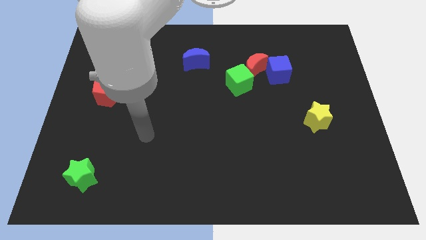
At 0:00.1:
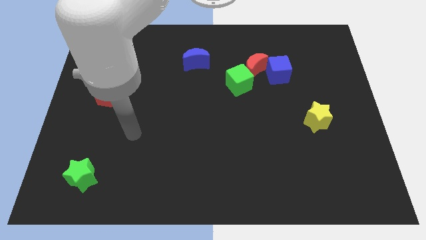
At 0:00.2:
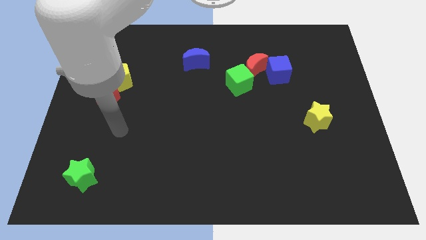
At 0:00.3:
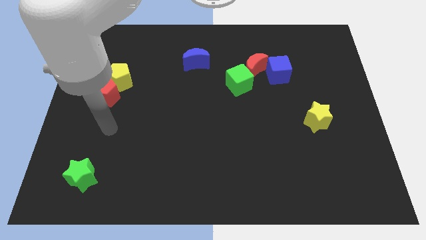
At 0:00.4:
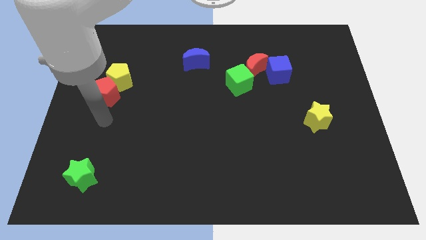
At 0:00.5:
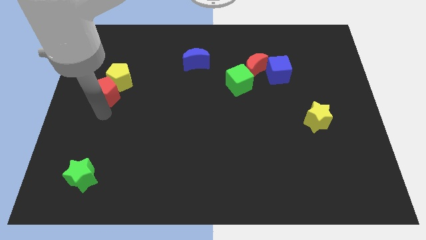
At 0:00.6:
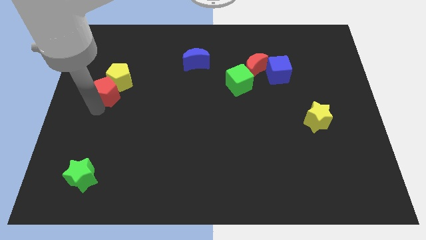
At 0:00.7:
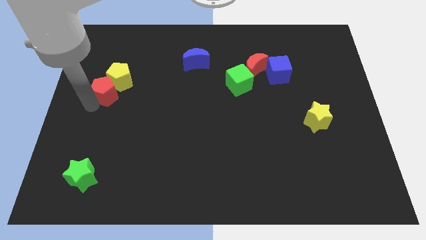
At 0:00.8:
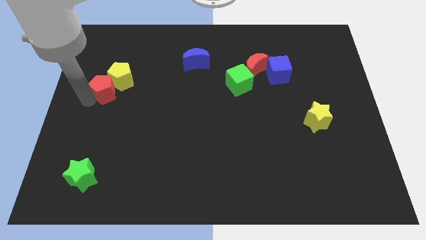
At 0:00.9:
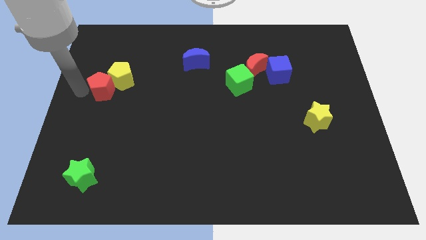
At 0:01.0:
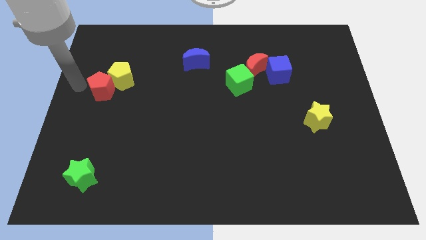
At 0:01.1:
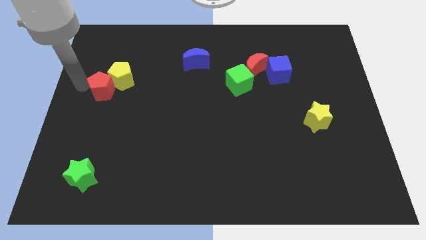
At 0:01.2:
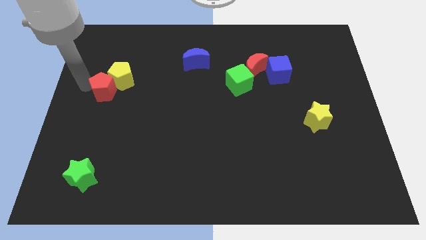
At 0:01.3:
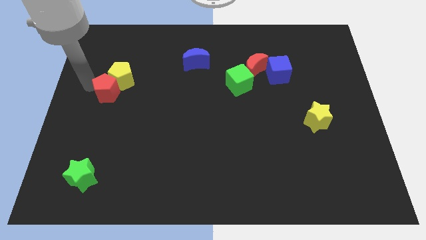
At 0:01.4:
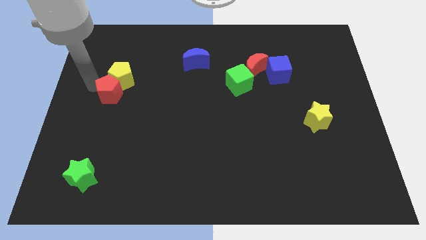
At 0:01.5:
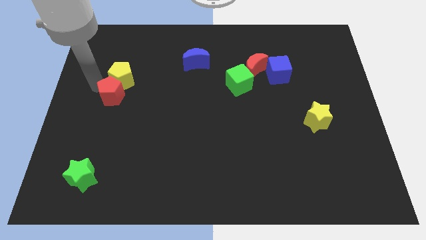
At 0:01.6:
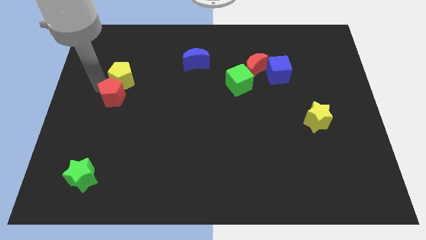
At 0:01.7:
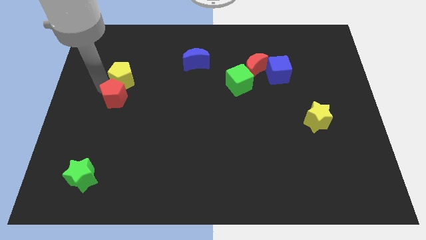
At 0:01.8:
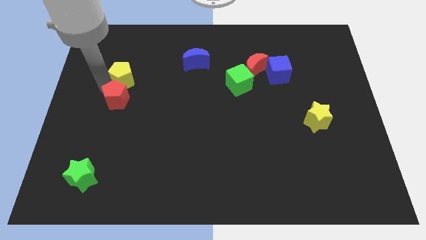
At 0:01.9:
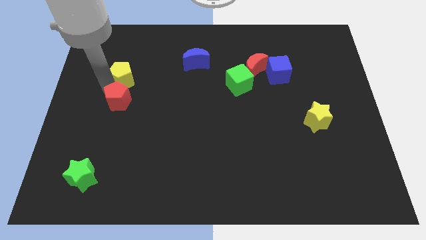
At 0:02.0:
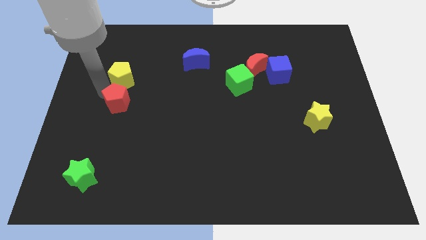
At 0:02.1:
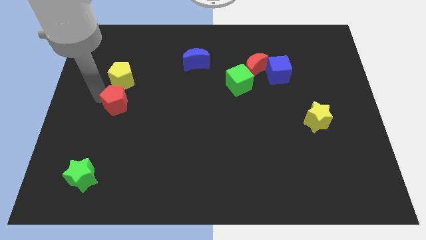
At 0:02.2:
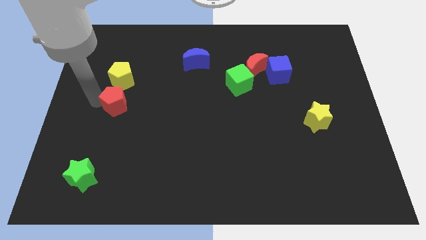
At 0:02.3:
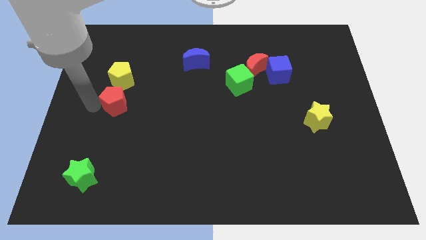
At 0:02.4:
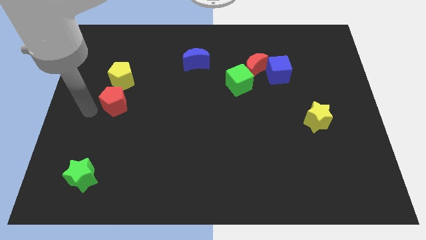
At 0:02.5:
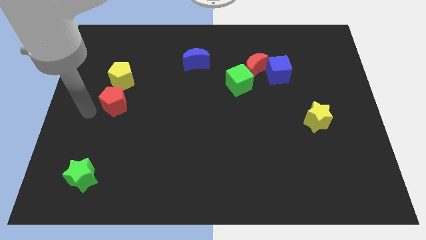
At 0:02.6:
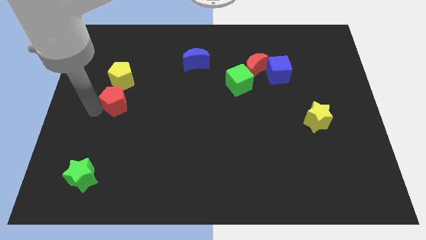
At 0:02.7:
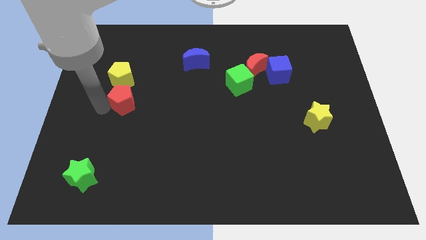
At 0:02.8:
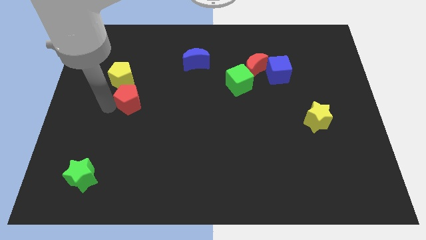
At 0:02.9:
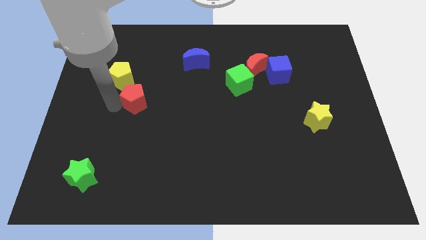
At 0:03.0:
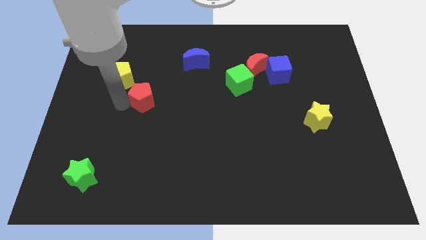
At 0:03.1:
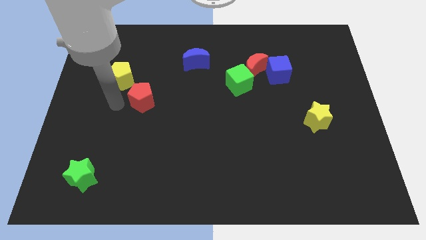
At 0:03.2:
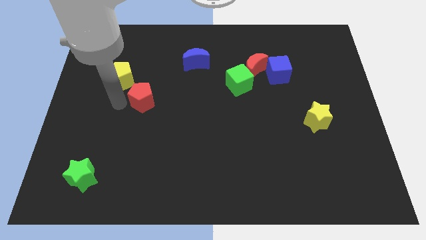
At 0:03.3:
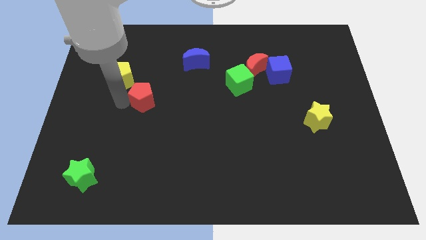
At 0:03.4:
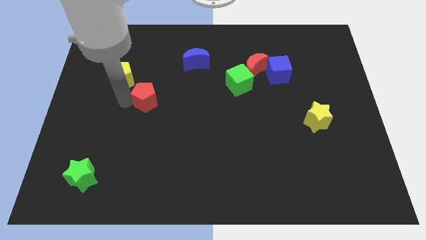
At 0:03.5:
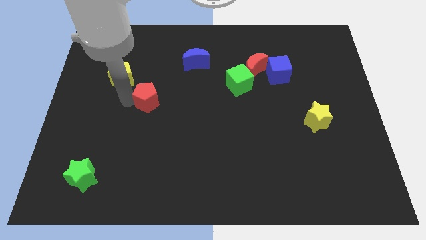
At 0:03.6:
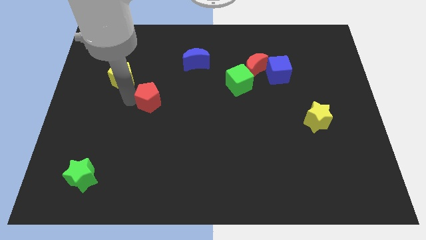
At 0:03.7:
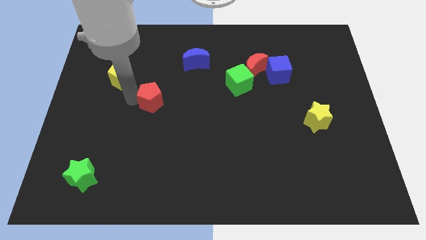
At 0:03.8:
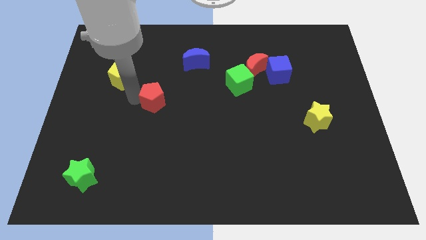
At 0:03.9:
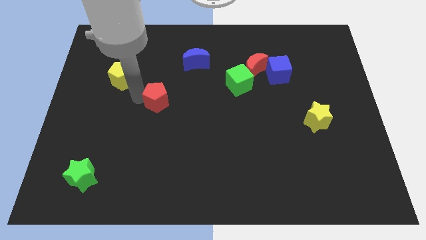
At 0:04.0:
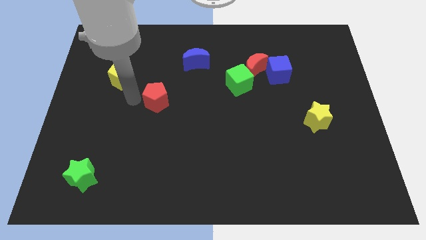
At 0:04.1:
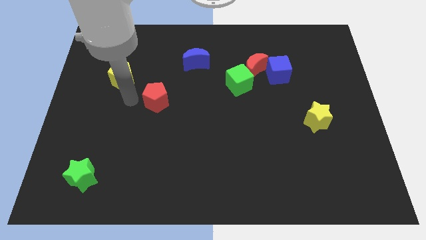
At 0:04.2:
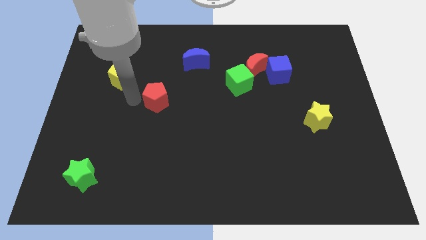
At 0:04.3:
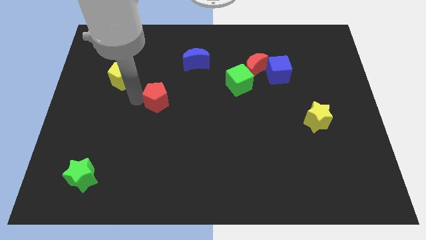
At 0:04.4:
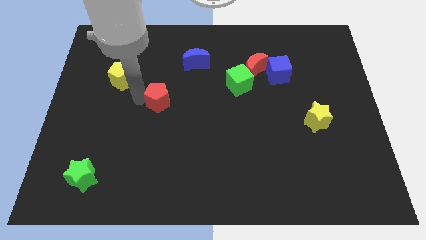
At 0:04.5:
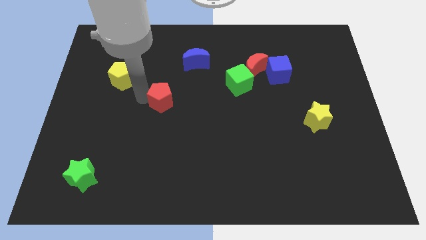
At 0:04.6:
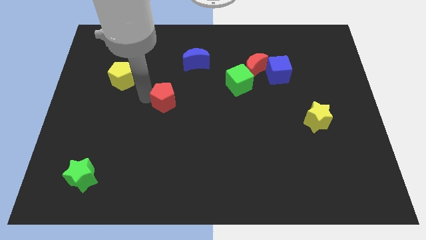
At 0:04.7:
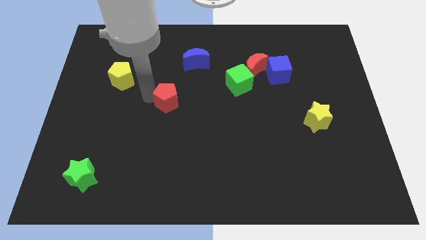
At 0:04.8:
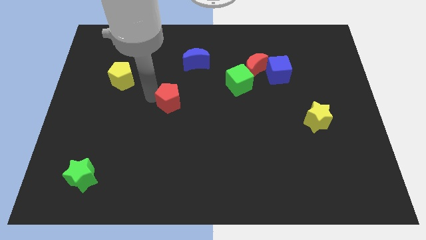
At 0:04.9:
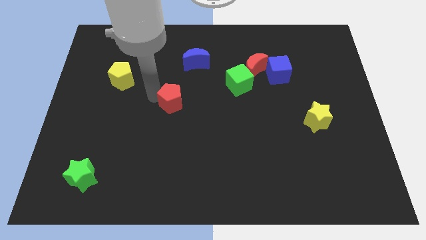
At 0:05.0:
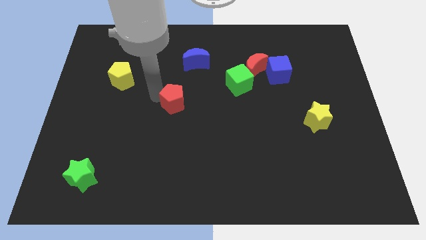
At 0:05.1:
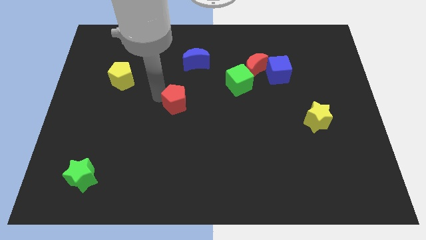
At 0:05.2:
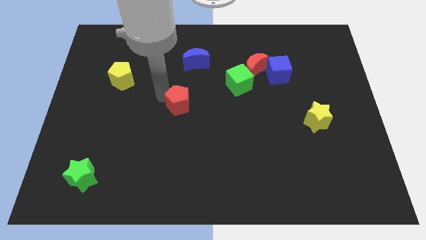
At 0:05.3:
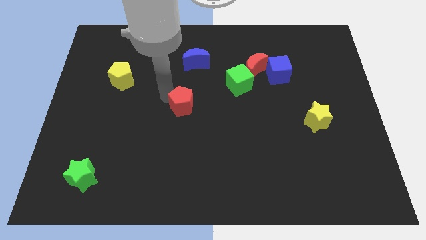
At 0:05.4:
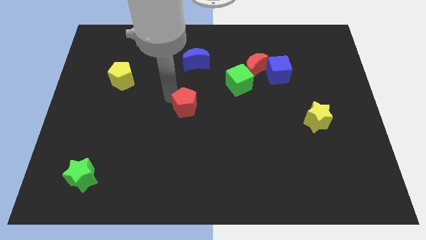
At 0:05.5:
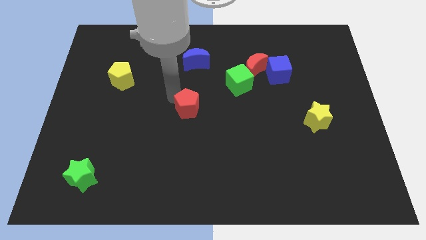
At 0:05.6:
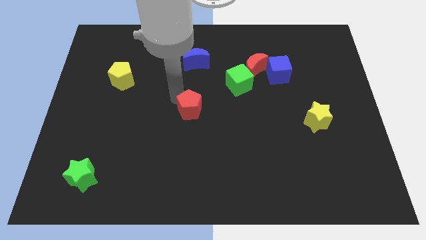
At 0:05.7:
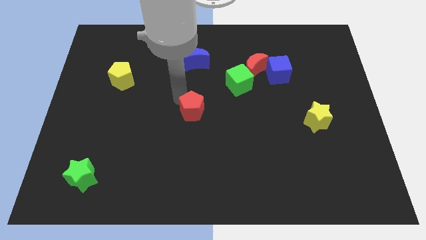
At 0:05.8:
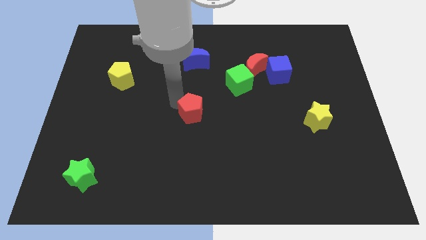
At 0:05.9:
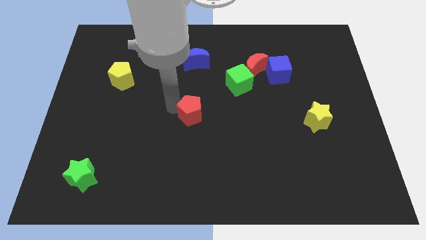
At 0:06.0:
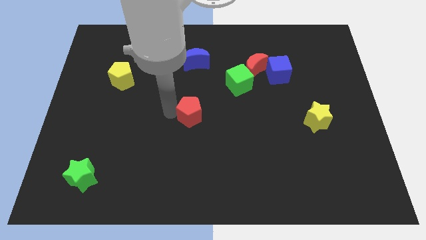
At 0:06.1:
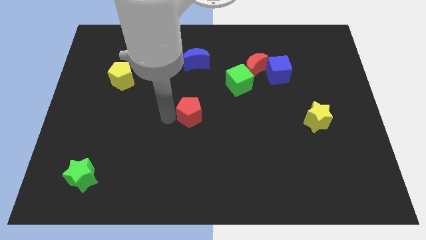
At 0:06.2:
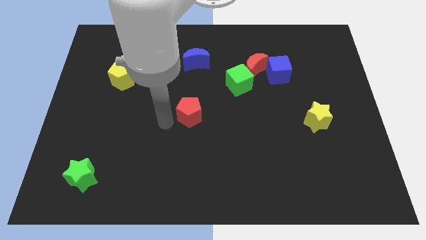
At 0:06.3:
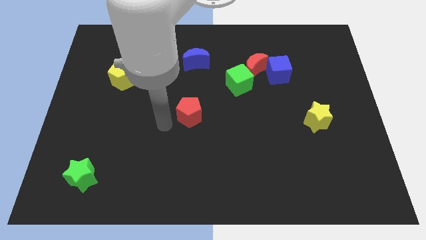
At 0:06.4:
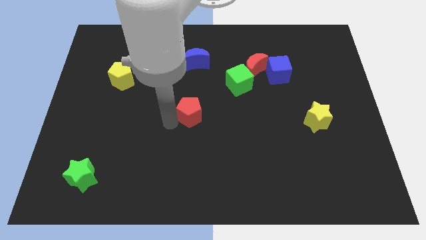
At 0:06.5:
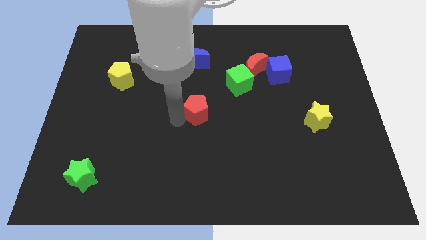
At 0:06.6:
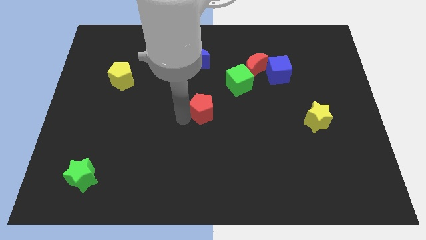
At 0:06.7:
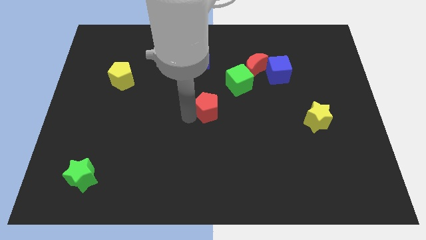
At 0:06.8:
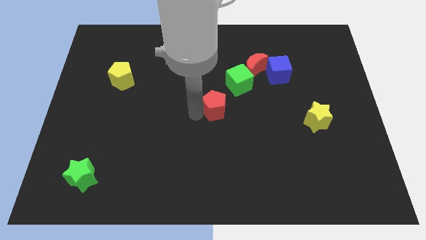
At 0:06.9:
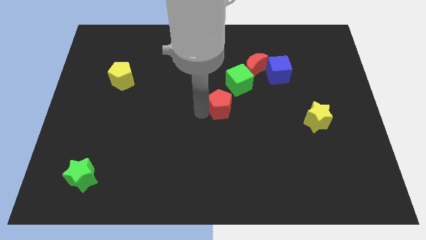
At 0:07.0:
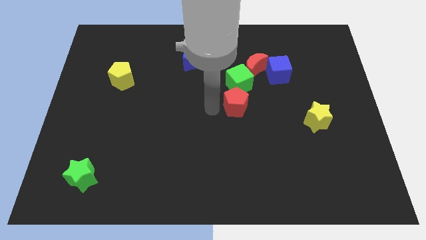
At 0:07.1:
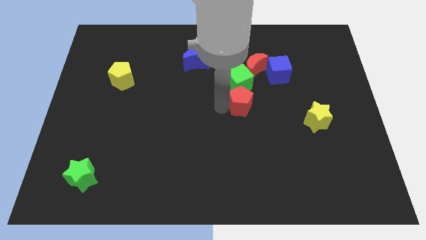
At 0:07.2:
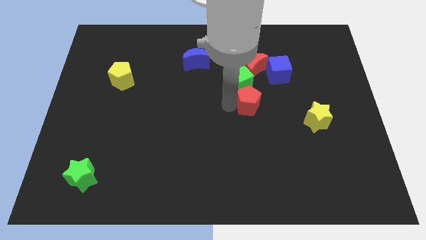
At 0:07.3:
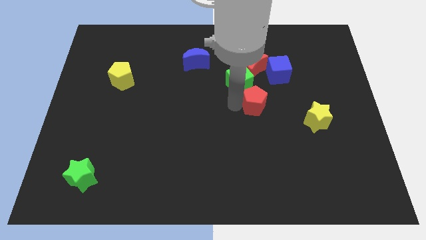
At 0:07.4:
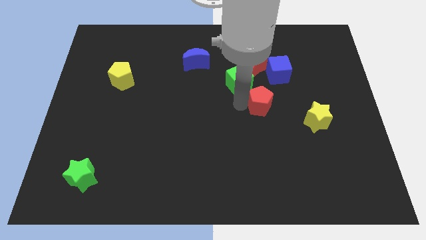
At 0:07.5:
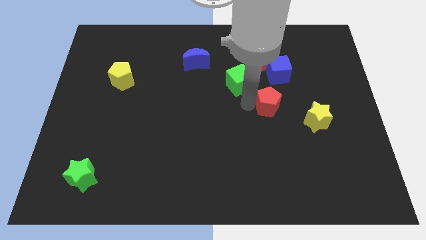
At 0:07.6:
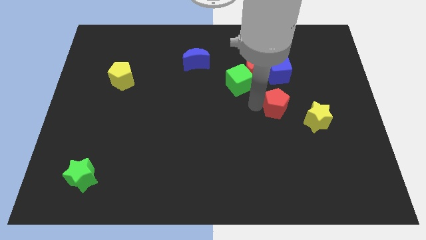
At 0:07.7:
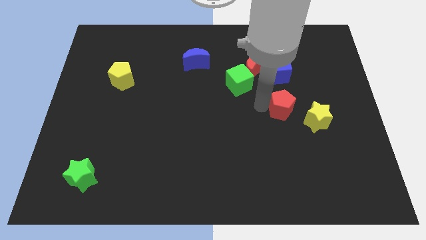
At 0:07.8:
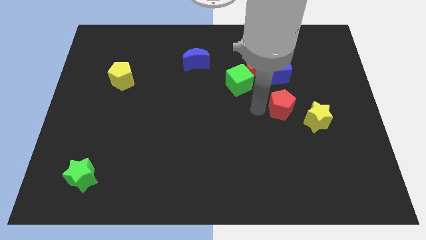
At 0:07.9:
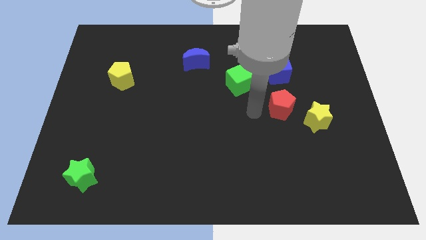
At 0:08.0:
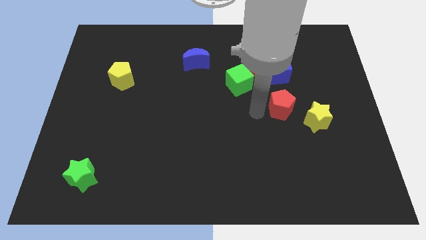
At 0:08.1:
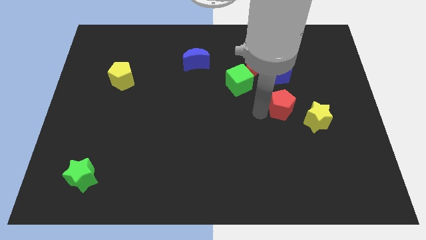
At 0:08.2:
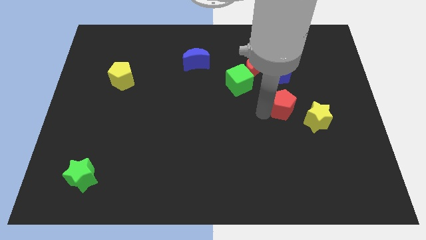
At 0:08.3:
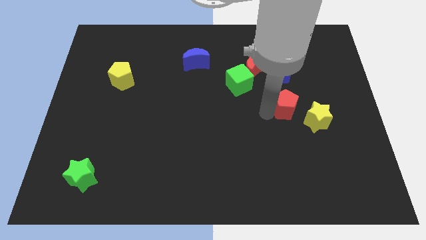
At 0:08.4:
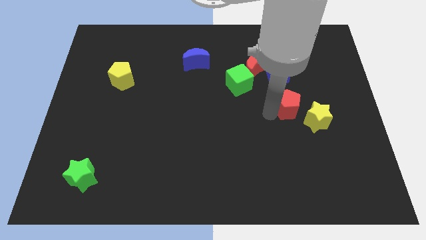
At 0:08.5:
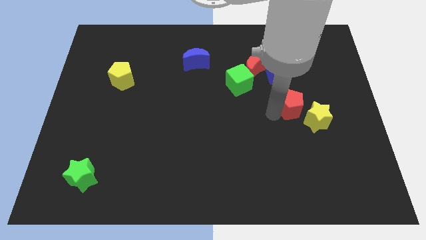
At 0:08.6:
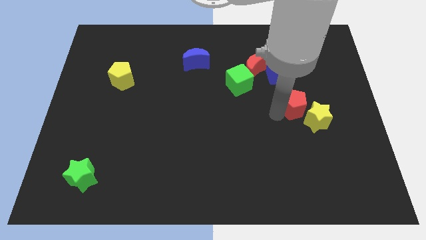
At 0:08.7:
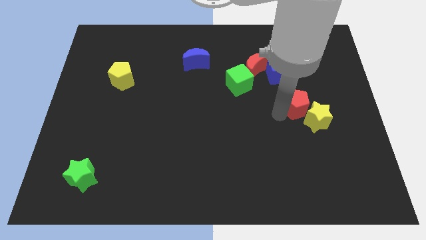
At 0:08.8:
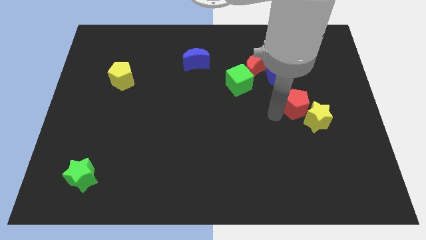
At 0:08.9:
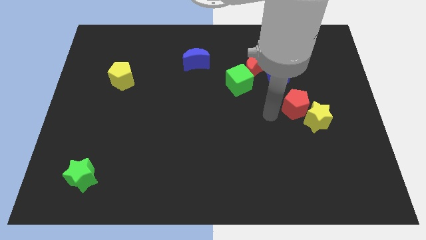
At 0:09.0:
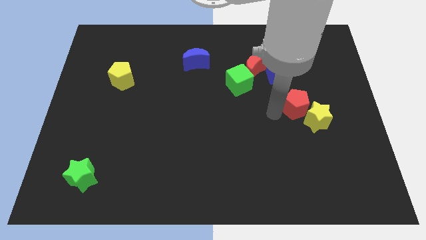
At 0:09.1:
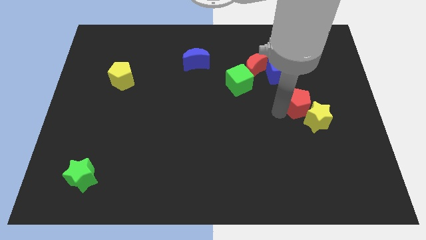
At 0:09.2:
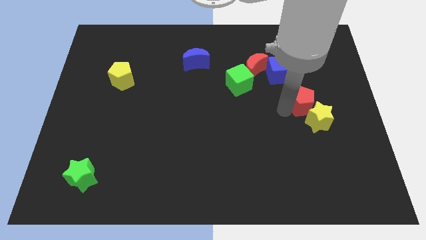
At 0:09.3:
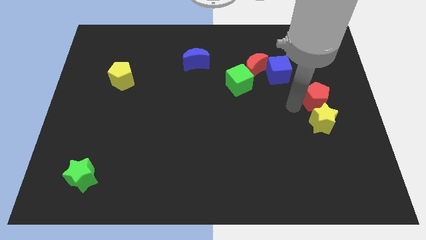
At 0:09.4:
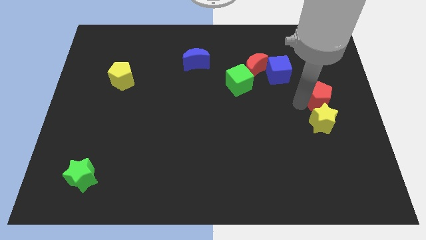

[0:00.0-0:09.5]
put the red pentagon to the right side
